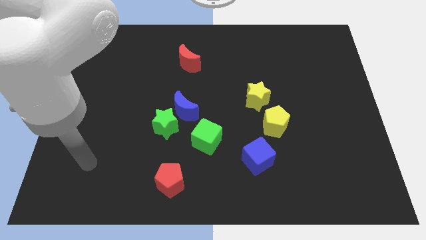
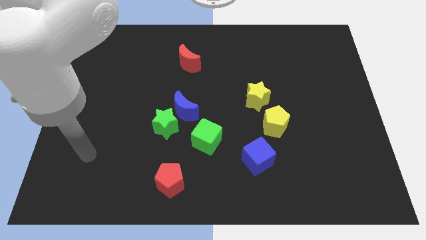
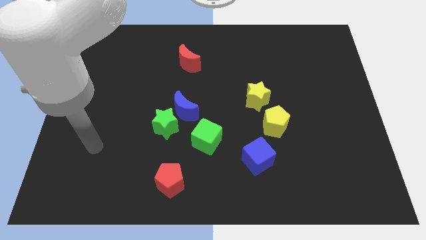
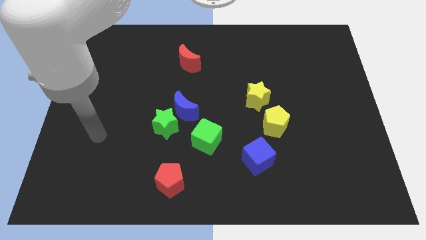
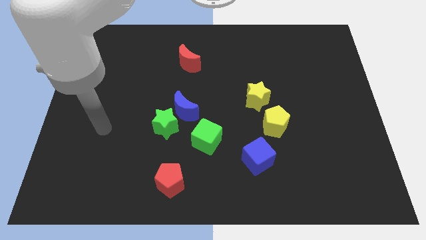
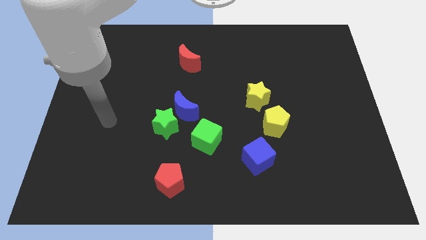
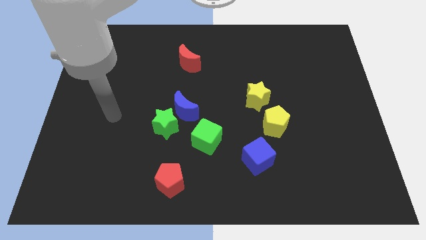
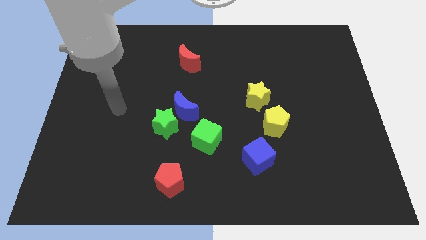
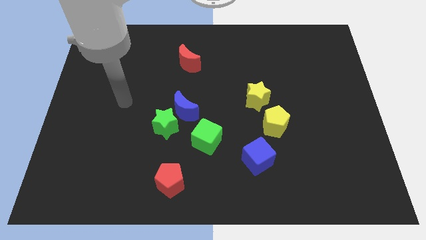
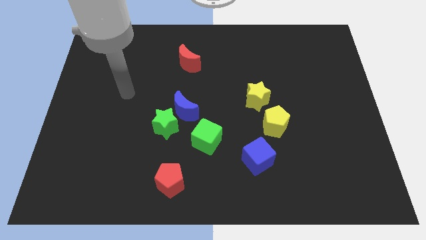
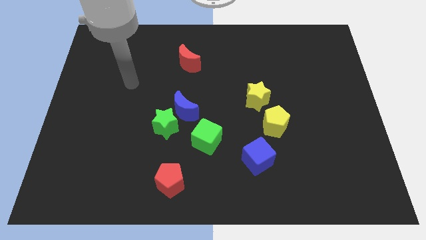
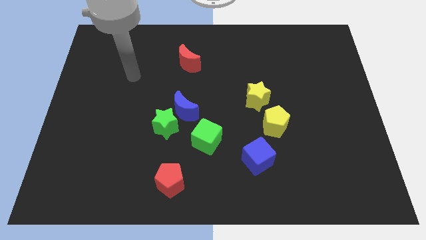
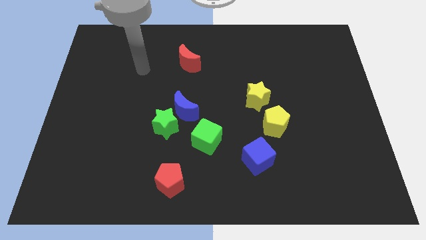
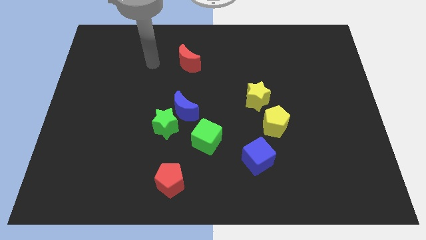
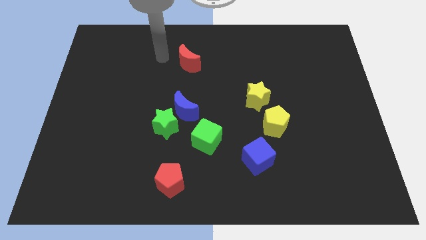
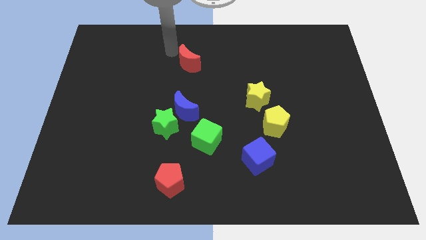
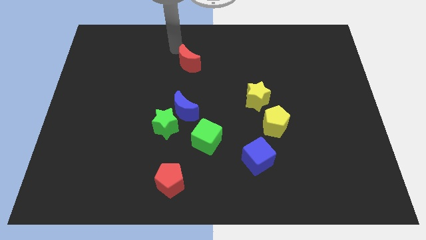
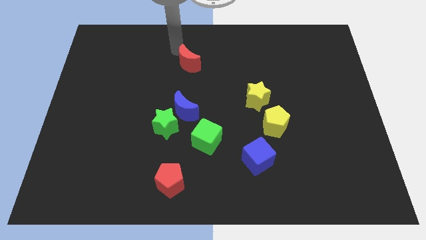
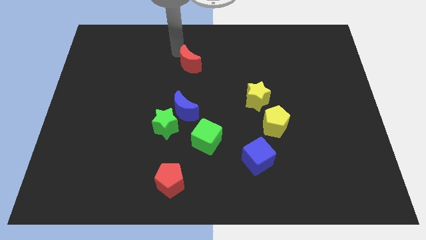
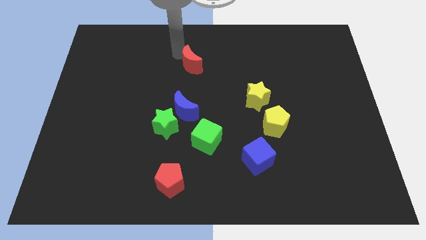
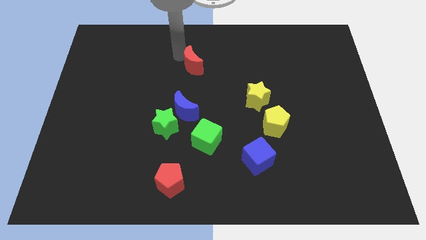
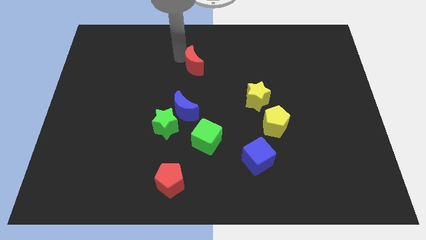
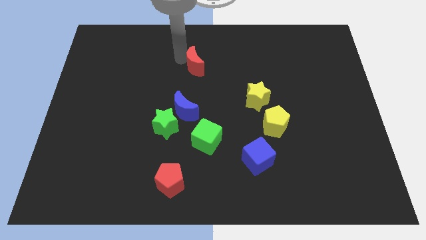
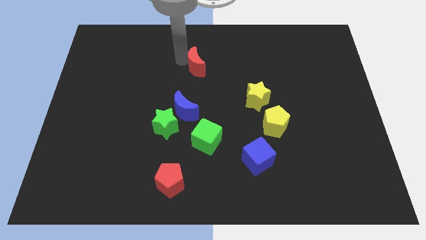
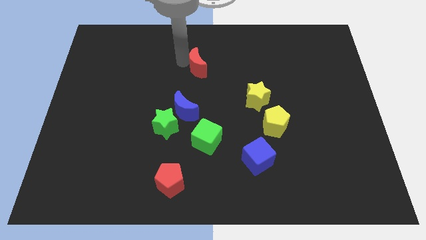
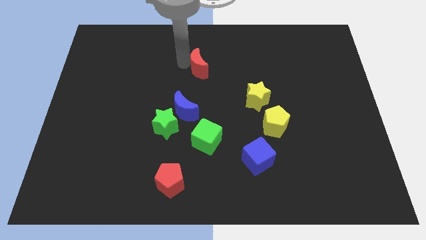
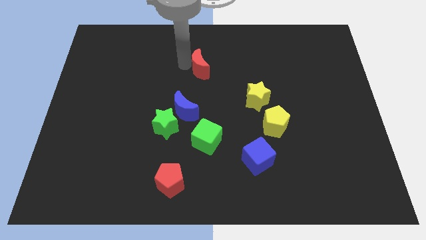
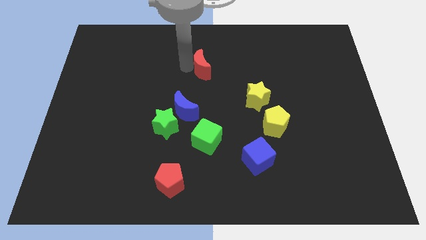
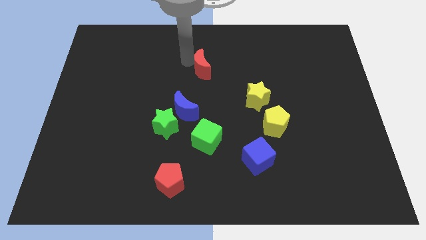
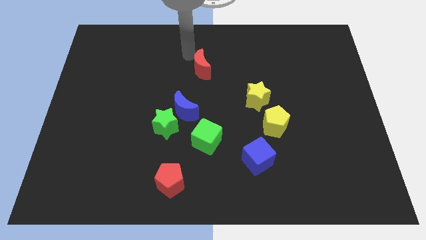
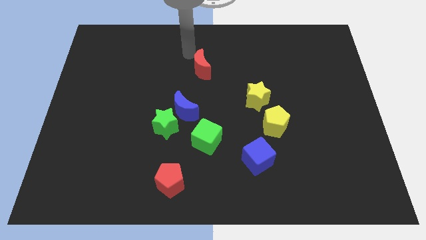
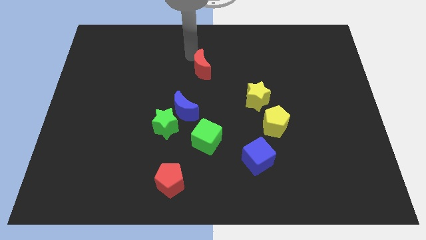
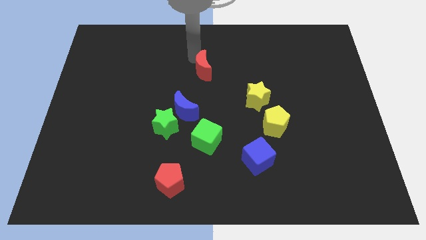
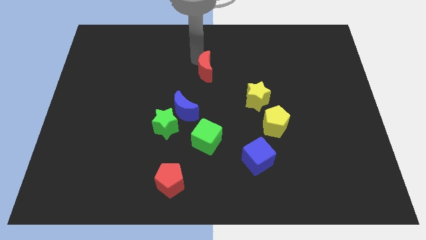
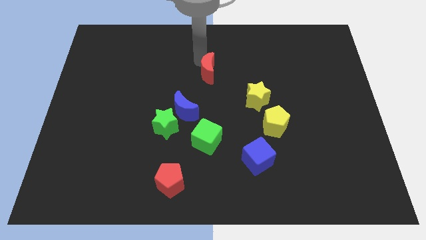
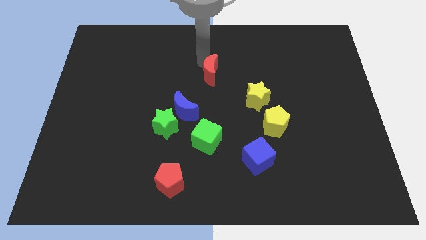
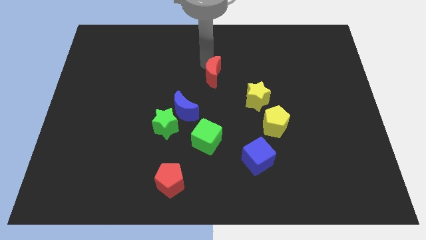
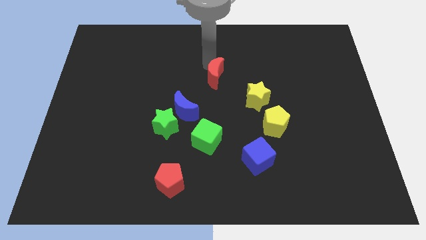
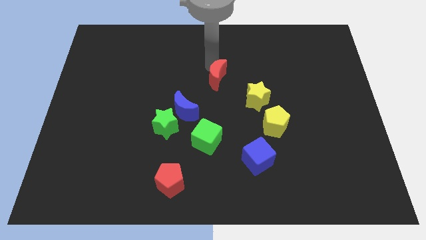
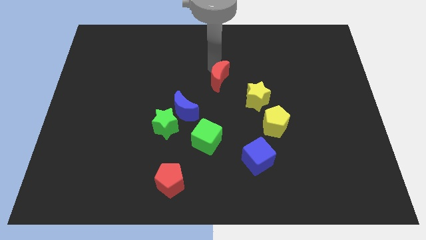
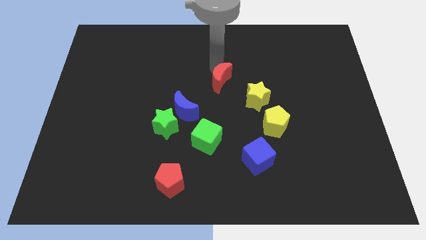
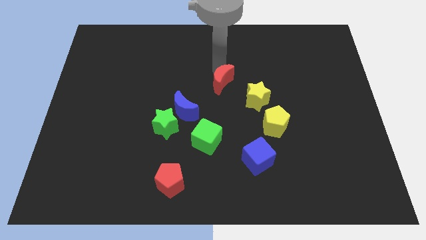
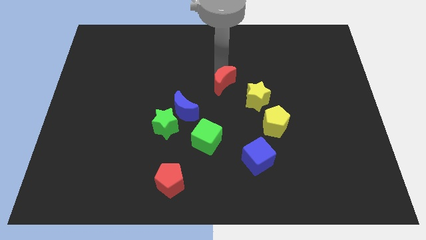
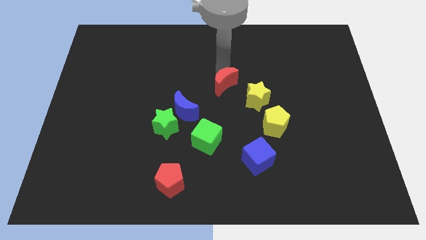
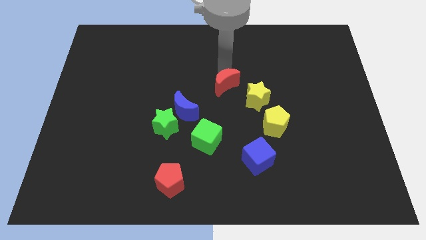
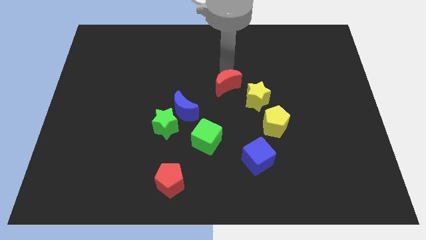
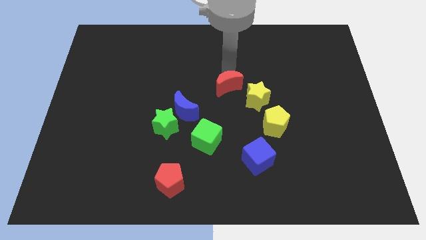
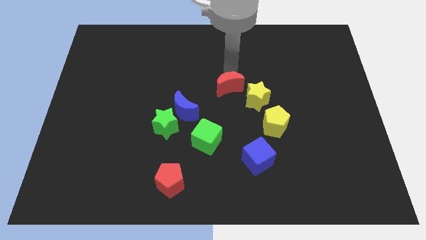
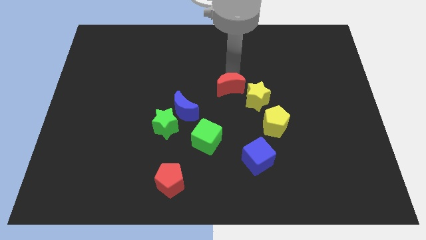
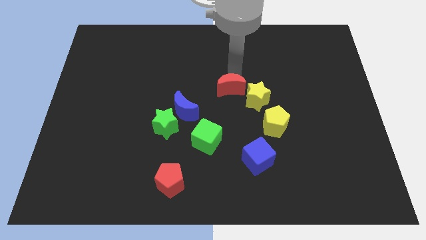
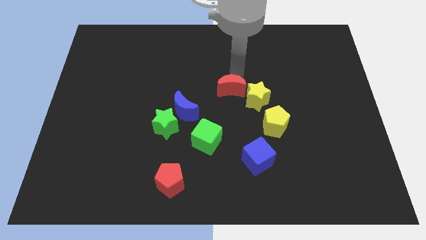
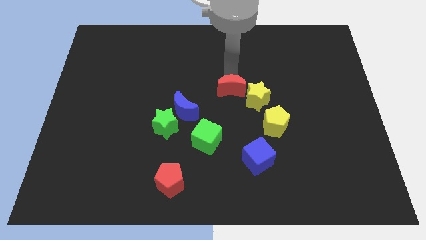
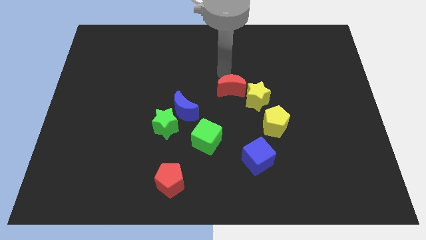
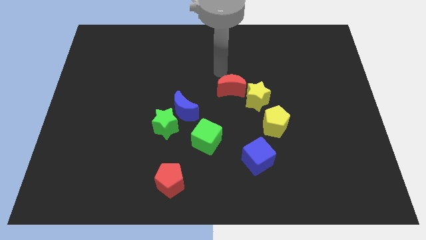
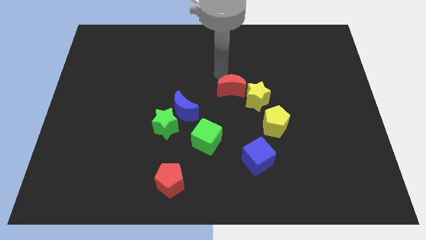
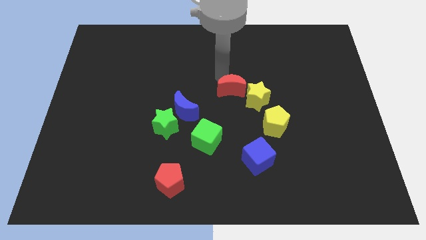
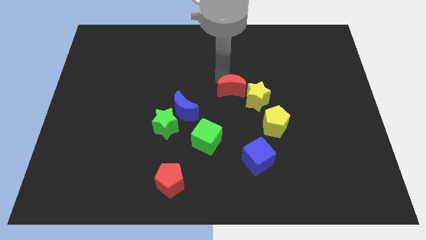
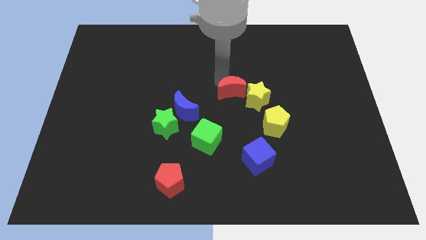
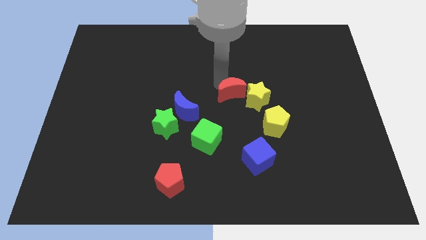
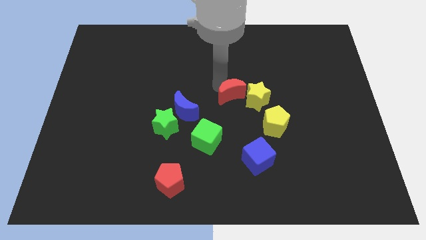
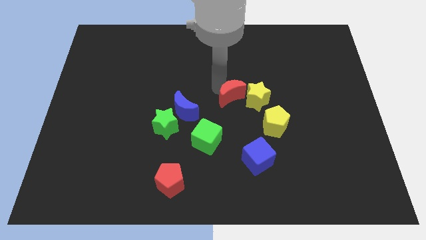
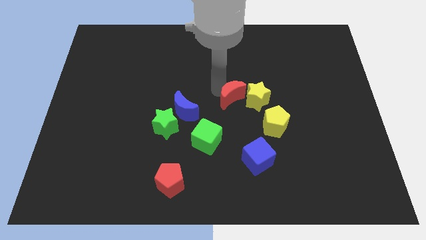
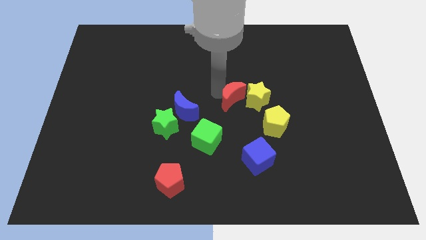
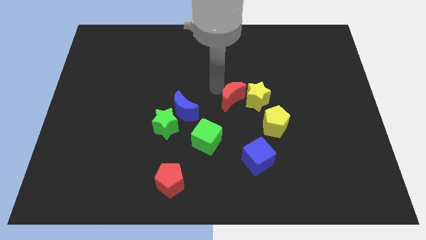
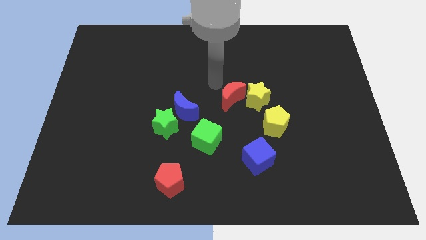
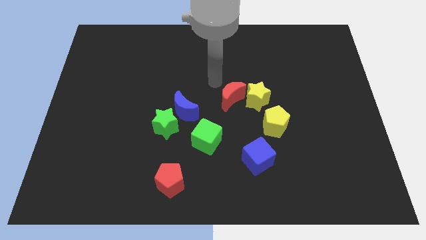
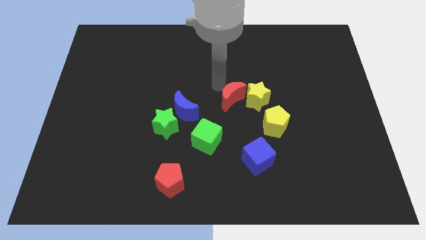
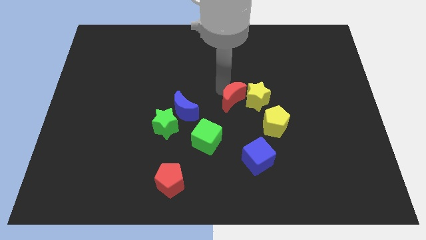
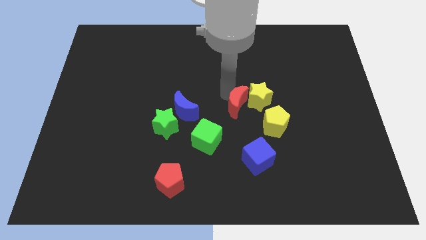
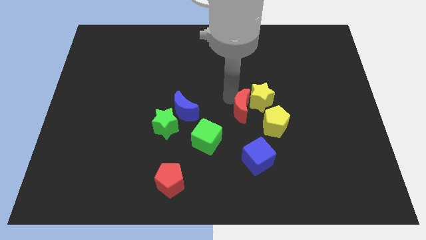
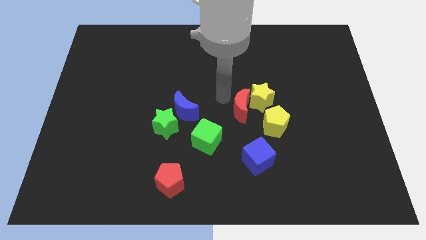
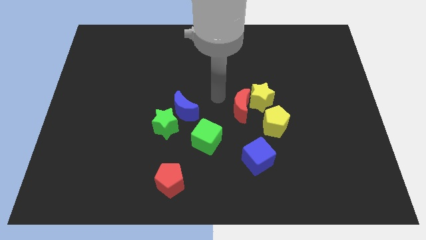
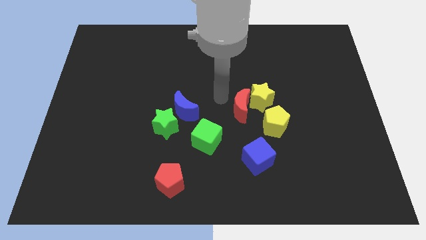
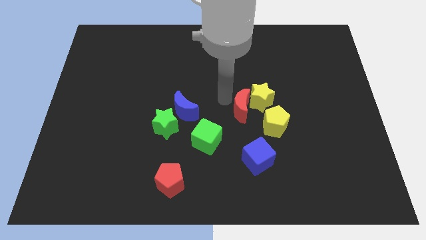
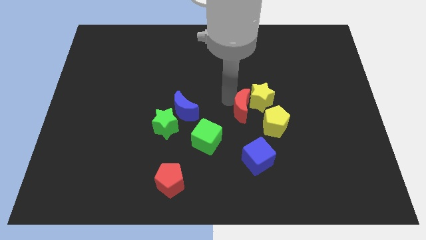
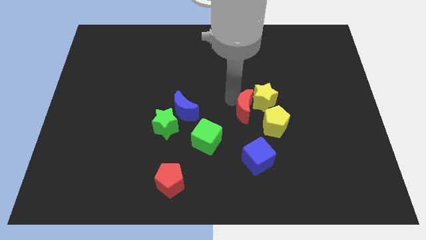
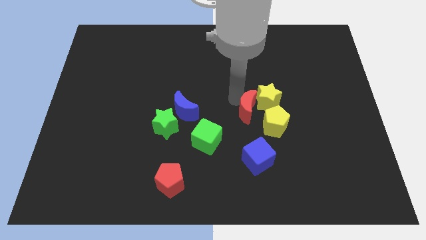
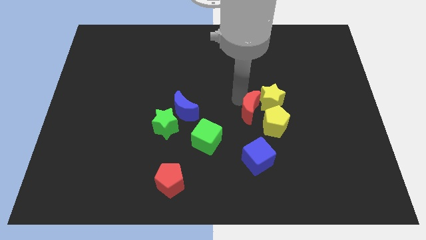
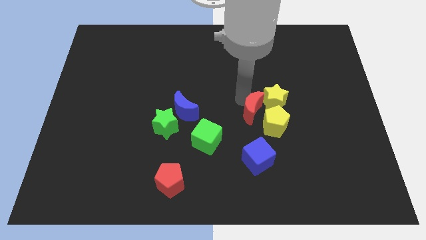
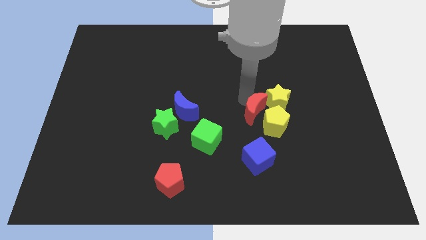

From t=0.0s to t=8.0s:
slide the red moon next to the yellow pentagon
